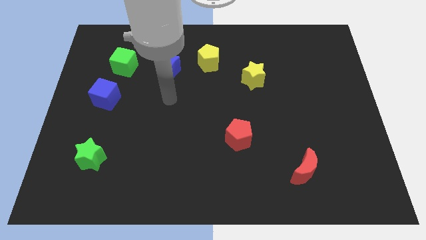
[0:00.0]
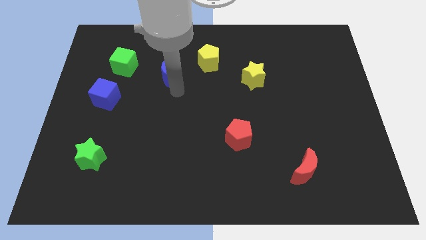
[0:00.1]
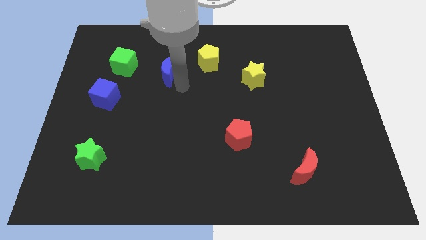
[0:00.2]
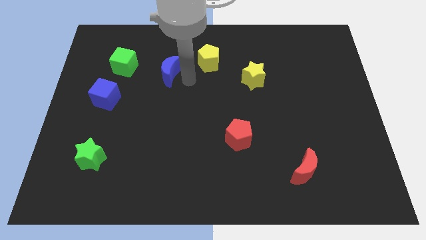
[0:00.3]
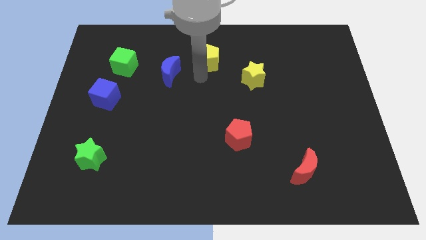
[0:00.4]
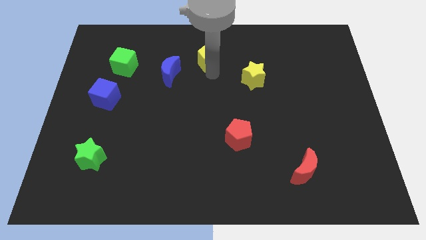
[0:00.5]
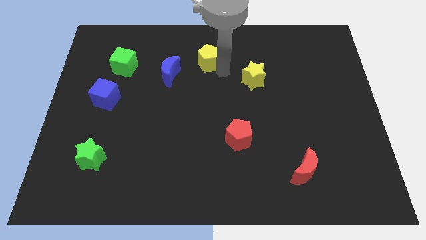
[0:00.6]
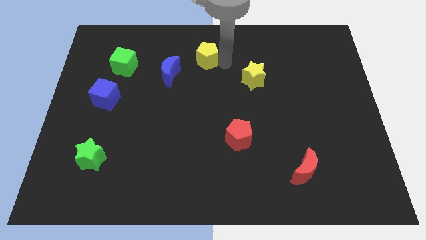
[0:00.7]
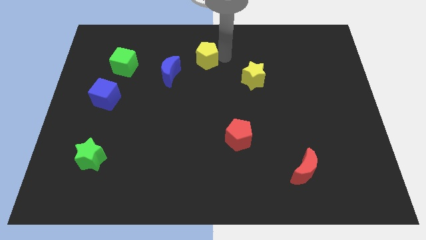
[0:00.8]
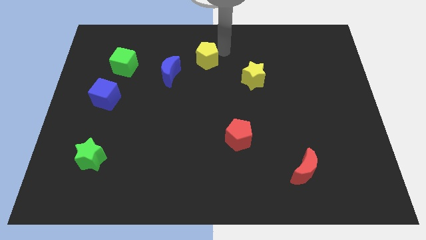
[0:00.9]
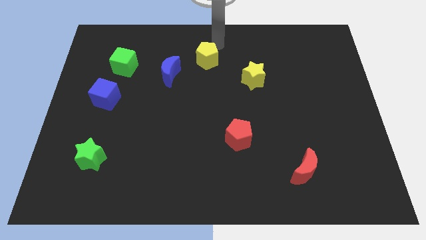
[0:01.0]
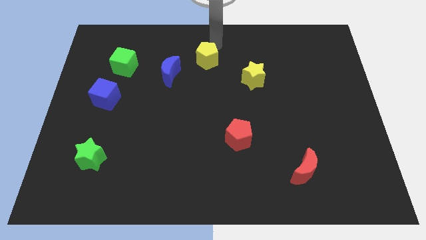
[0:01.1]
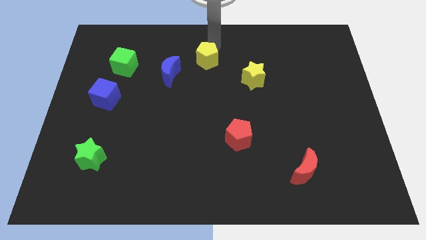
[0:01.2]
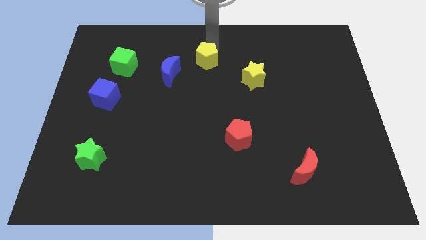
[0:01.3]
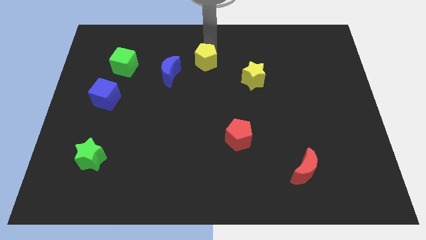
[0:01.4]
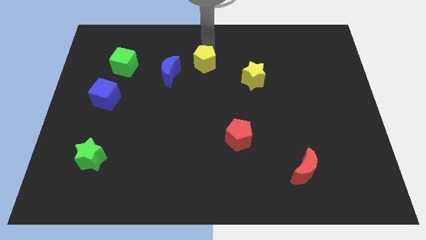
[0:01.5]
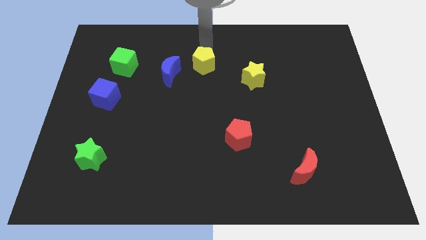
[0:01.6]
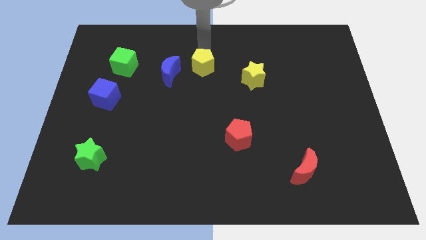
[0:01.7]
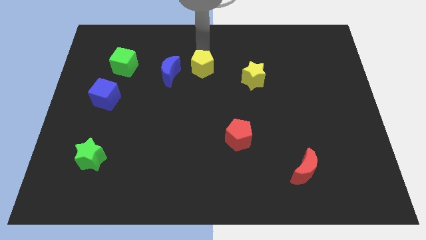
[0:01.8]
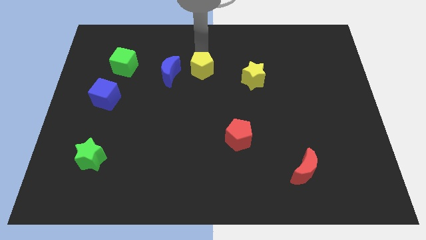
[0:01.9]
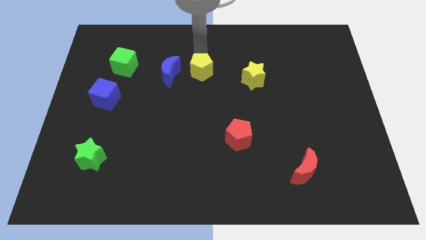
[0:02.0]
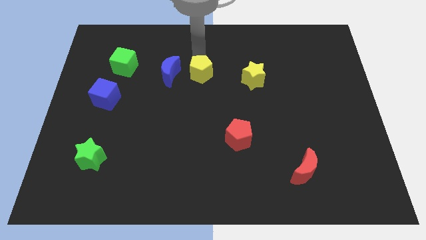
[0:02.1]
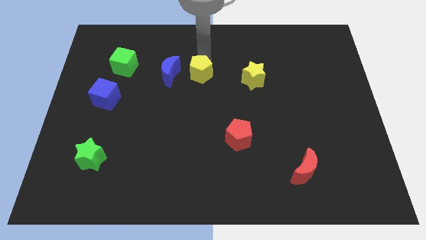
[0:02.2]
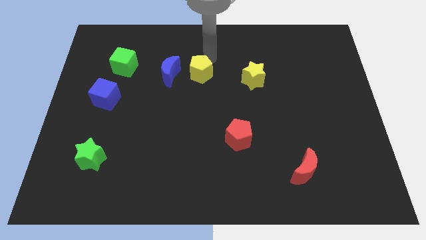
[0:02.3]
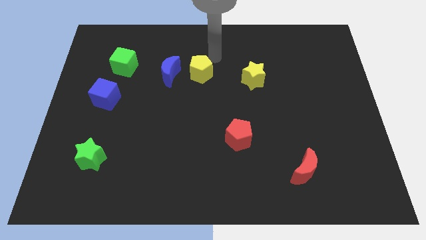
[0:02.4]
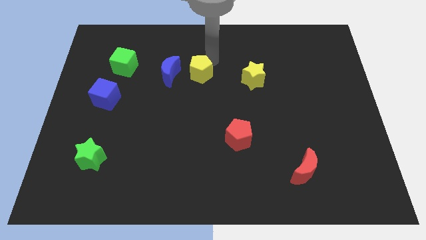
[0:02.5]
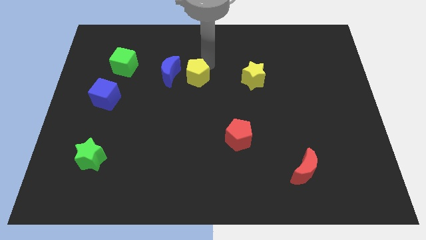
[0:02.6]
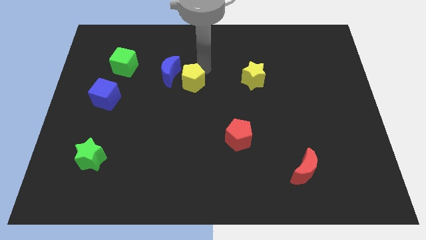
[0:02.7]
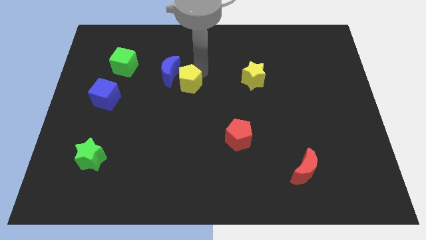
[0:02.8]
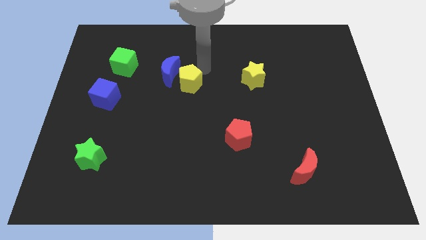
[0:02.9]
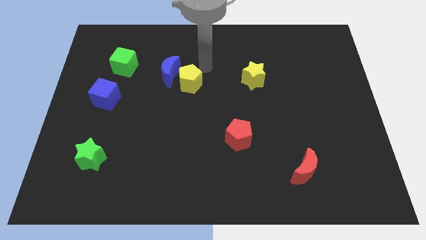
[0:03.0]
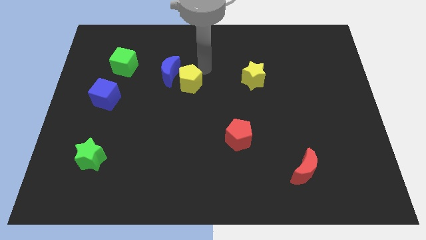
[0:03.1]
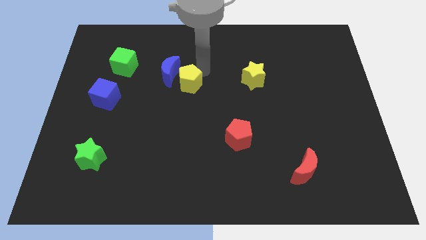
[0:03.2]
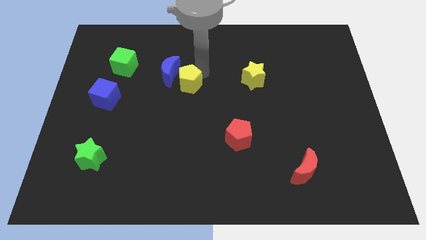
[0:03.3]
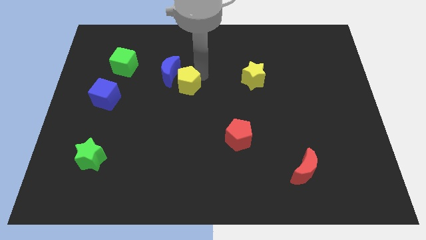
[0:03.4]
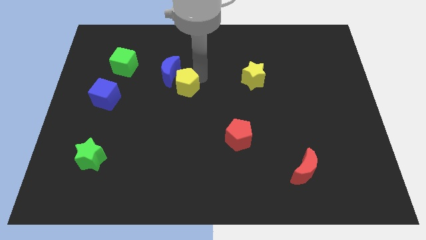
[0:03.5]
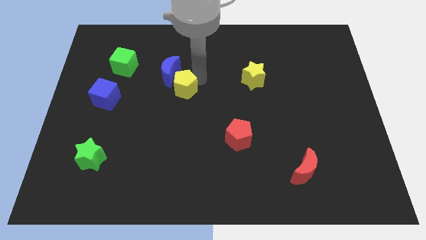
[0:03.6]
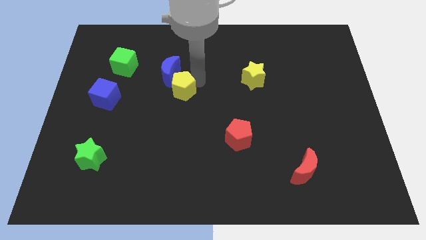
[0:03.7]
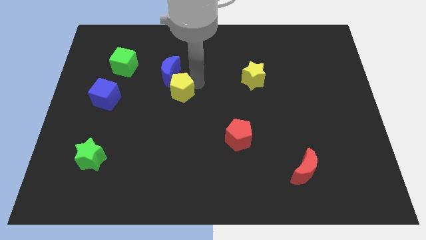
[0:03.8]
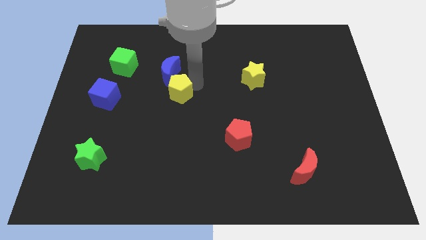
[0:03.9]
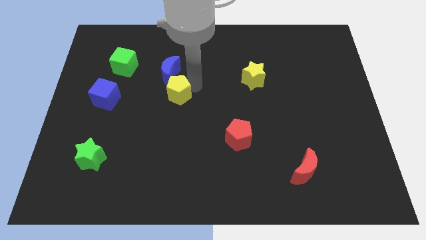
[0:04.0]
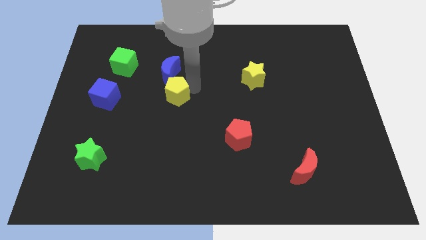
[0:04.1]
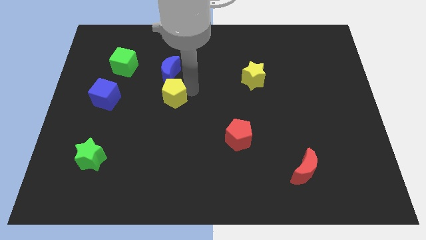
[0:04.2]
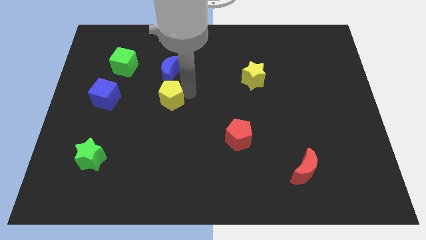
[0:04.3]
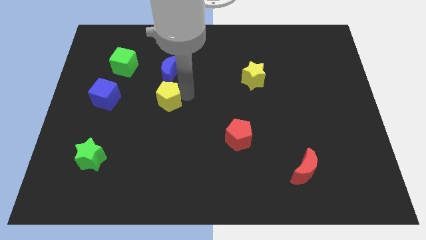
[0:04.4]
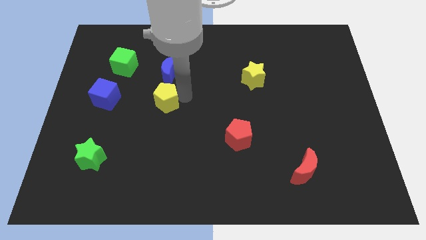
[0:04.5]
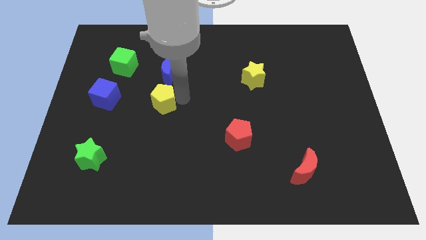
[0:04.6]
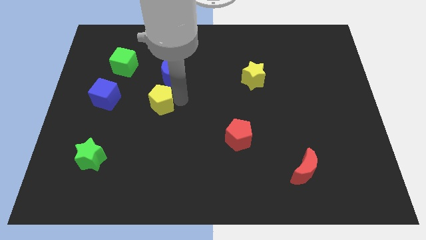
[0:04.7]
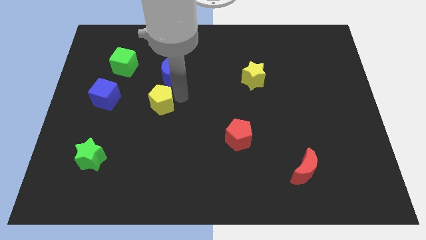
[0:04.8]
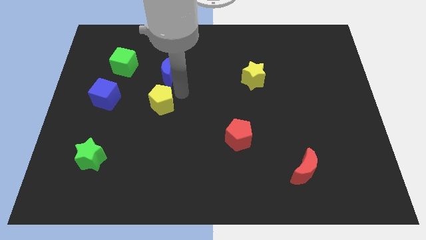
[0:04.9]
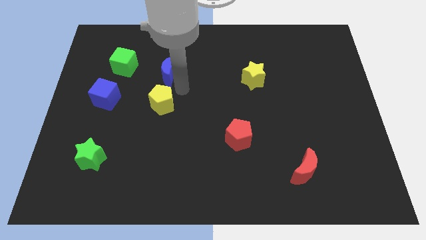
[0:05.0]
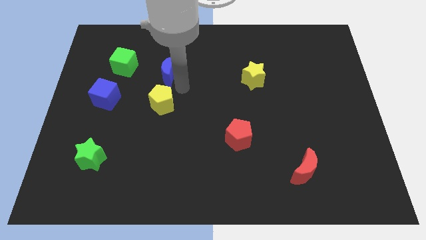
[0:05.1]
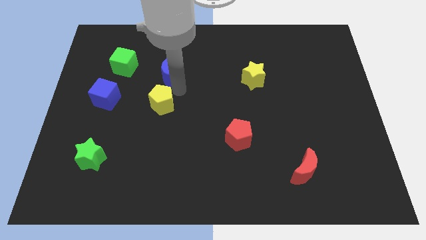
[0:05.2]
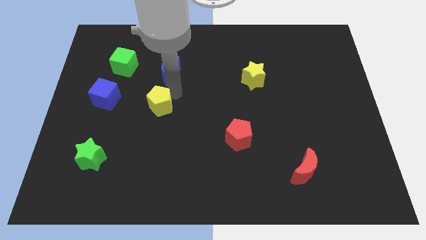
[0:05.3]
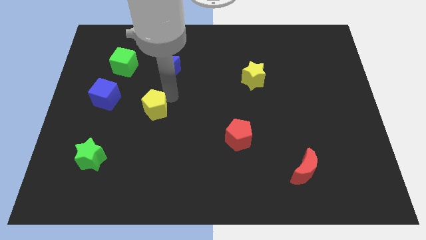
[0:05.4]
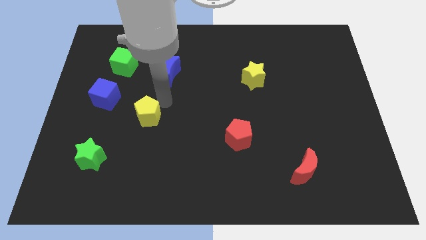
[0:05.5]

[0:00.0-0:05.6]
slide the yellow pentagon downwards and to the left diagonally

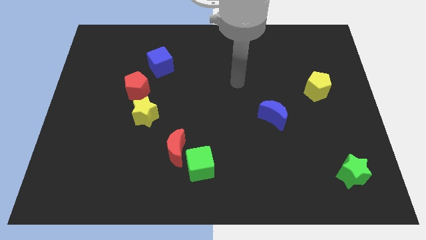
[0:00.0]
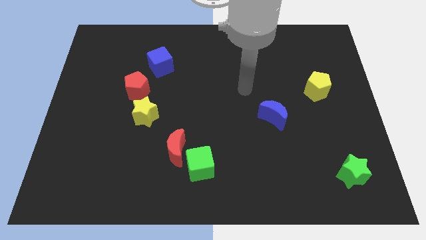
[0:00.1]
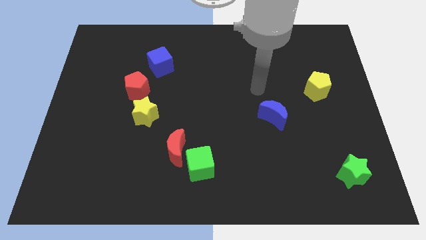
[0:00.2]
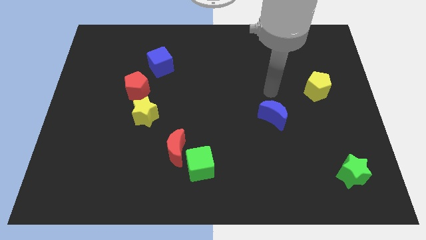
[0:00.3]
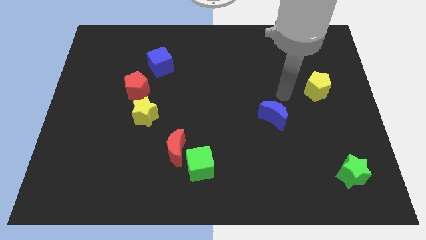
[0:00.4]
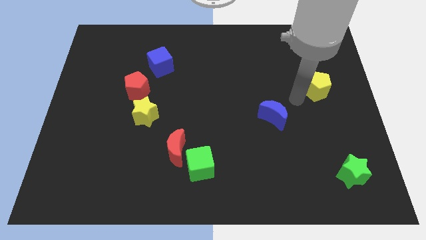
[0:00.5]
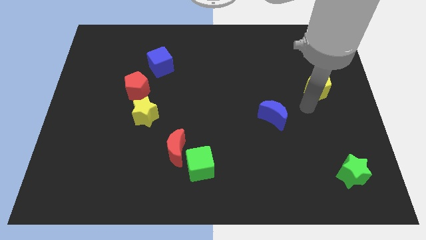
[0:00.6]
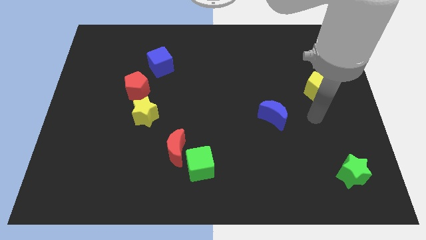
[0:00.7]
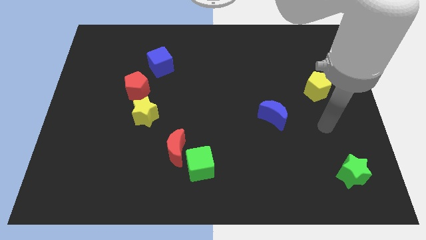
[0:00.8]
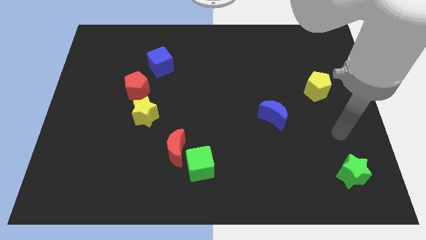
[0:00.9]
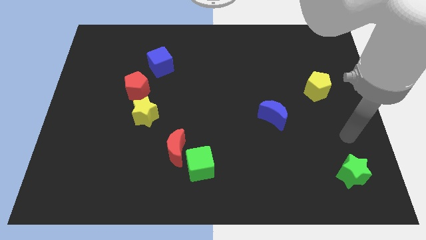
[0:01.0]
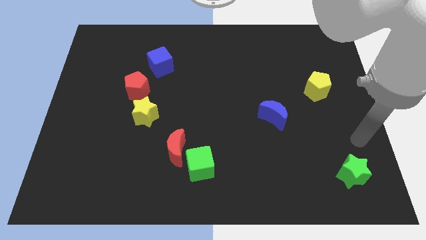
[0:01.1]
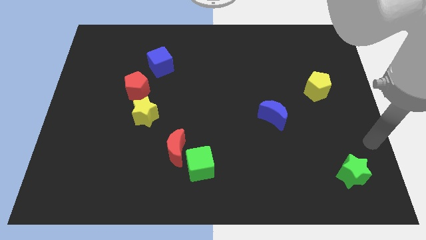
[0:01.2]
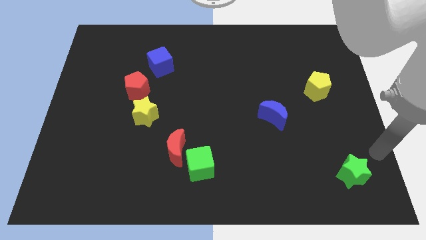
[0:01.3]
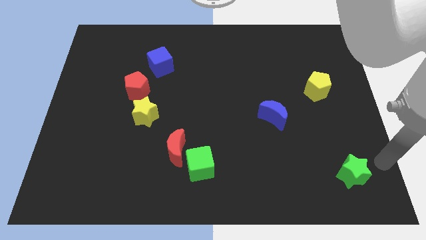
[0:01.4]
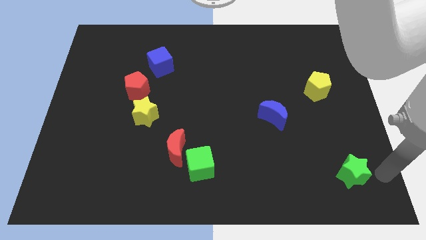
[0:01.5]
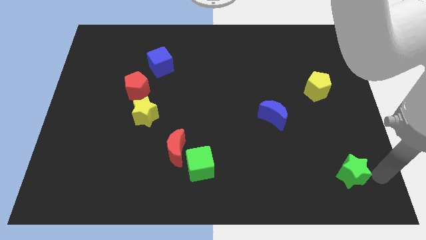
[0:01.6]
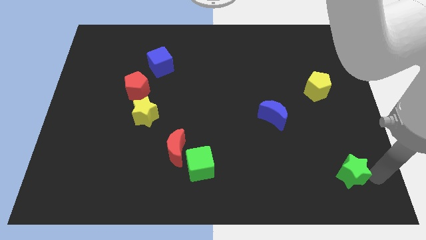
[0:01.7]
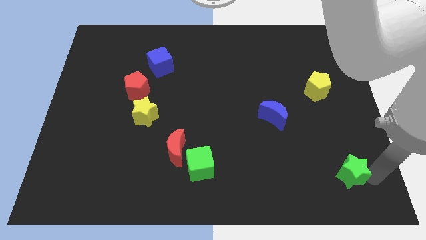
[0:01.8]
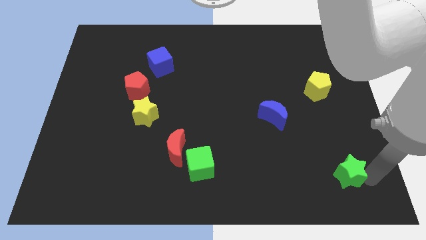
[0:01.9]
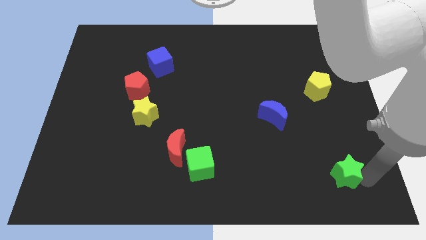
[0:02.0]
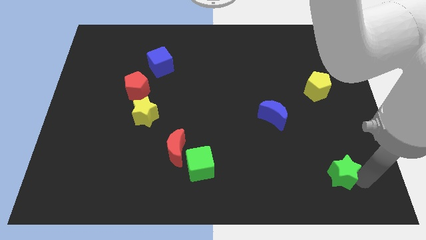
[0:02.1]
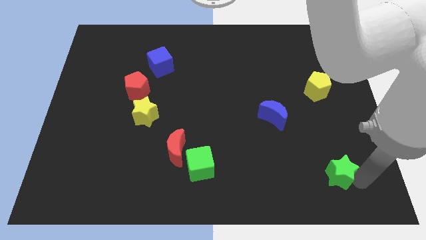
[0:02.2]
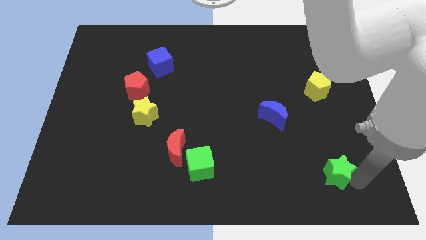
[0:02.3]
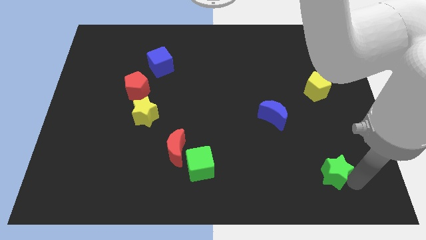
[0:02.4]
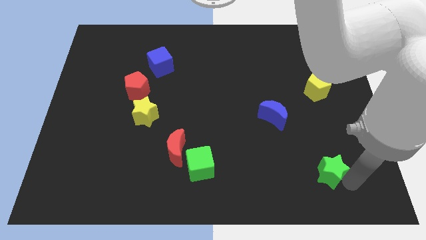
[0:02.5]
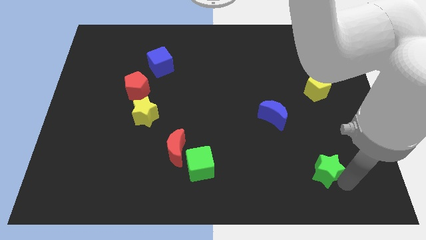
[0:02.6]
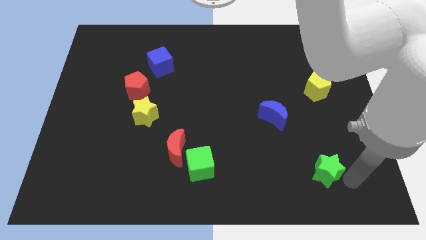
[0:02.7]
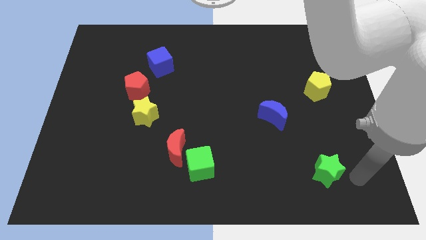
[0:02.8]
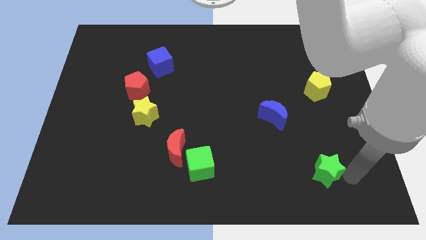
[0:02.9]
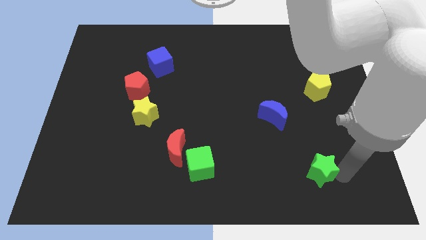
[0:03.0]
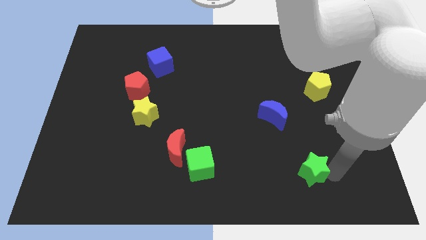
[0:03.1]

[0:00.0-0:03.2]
push the green star a little left
